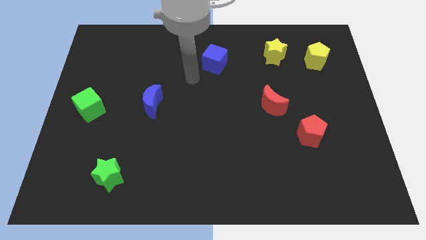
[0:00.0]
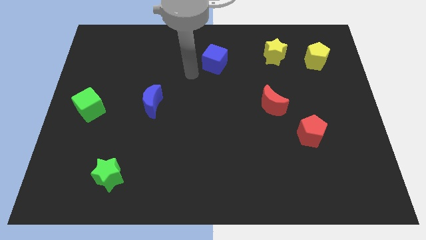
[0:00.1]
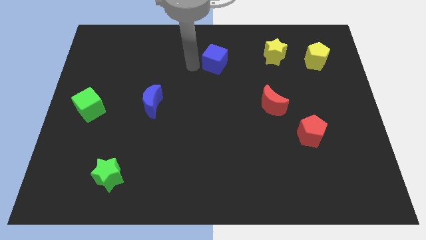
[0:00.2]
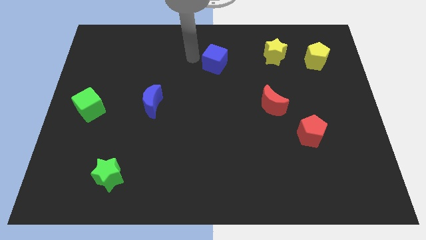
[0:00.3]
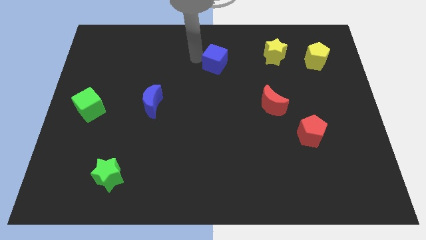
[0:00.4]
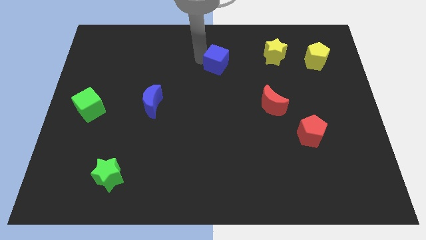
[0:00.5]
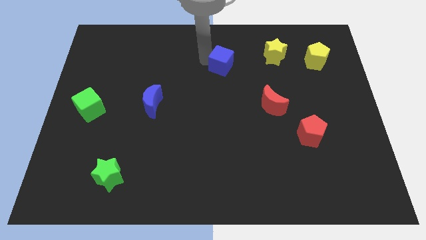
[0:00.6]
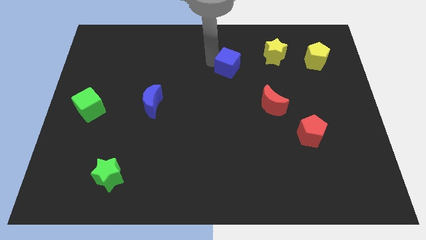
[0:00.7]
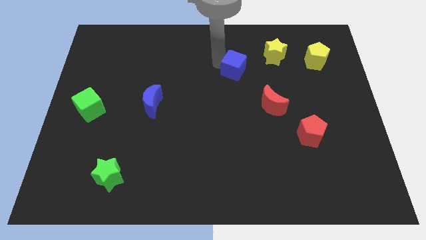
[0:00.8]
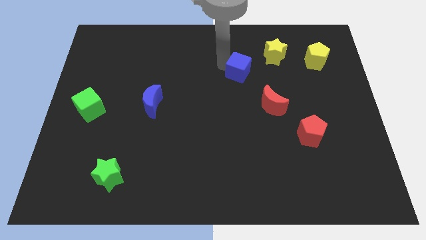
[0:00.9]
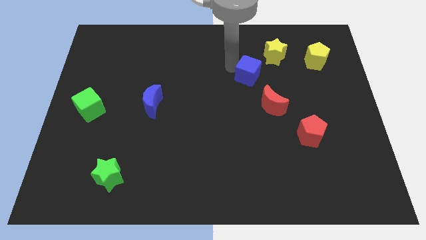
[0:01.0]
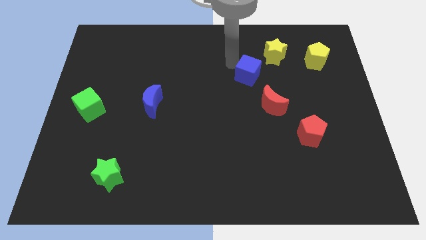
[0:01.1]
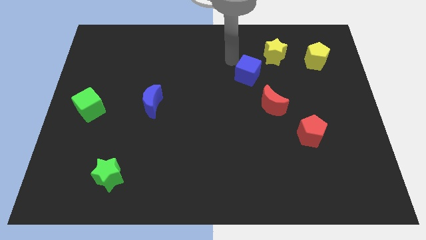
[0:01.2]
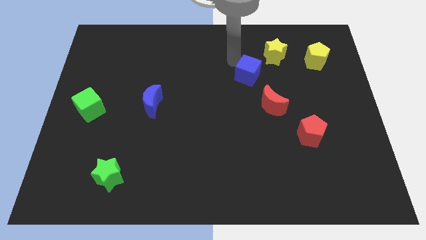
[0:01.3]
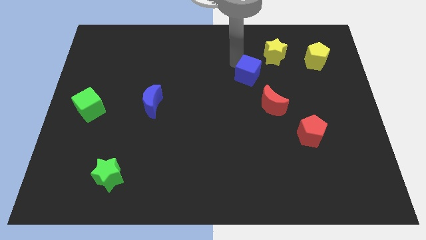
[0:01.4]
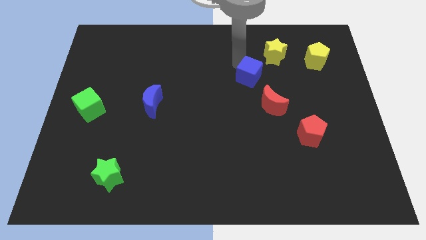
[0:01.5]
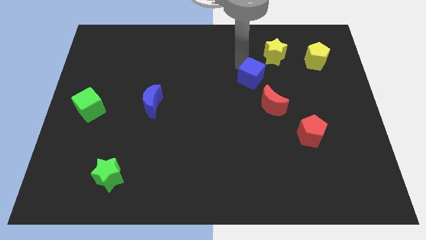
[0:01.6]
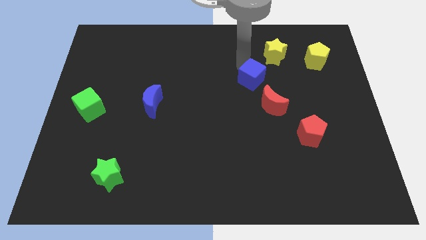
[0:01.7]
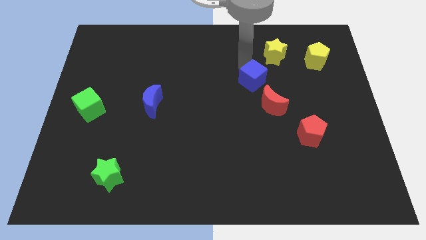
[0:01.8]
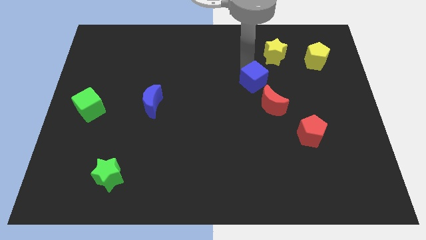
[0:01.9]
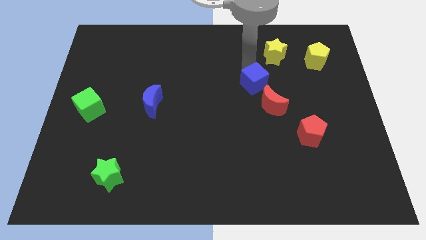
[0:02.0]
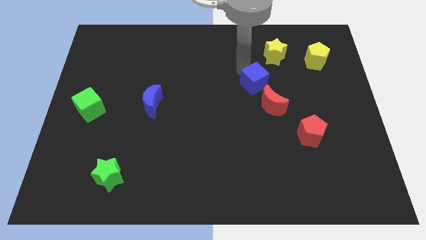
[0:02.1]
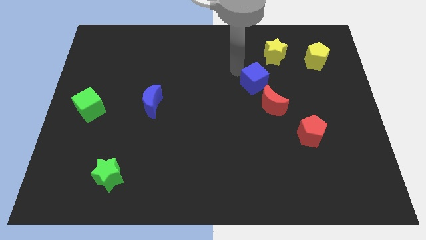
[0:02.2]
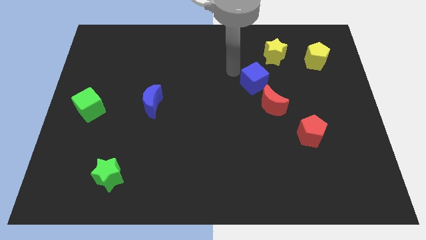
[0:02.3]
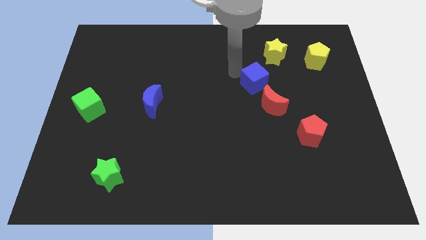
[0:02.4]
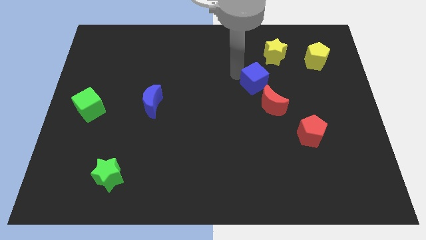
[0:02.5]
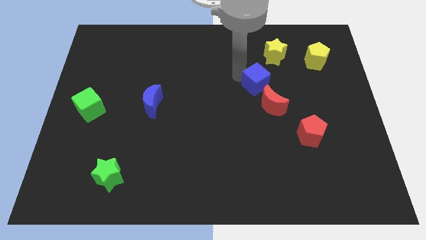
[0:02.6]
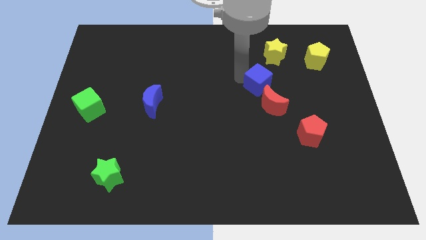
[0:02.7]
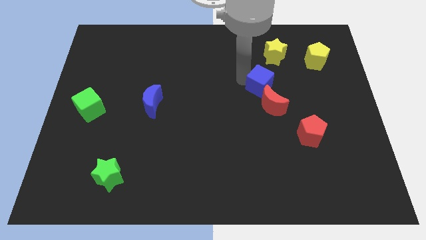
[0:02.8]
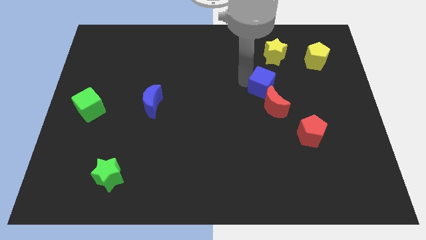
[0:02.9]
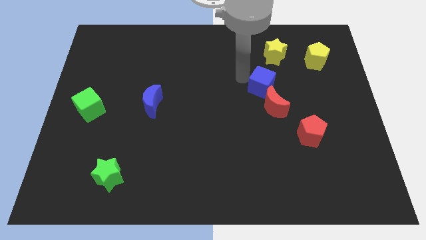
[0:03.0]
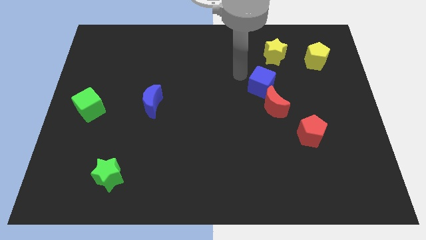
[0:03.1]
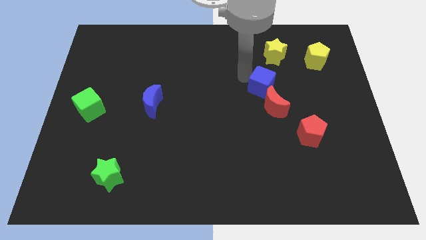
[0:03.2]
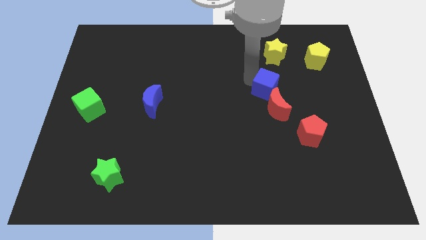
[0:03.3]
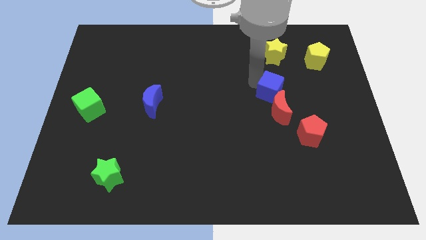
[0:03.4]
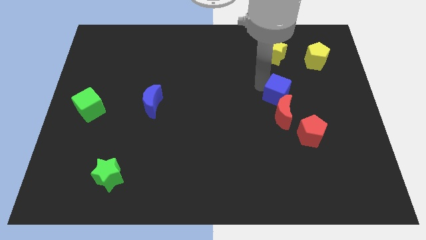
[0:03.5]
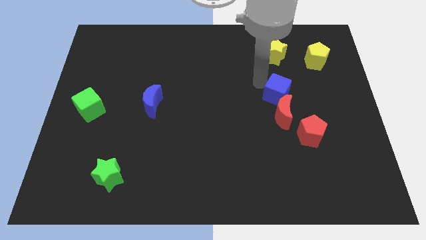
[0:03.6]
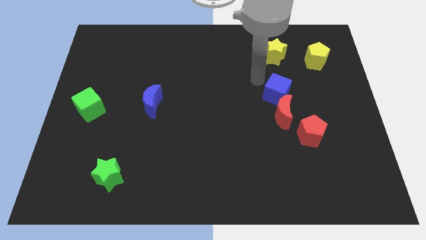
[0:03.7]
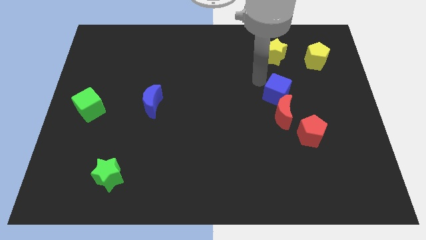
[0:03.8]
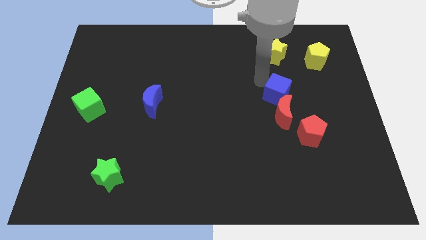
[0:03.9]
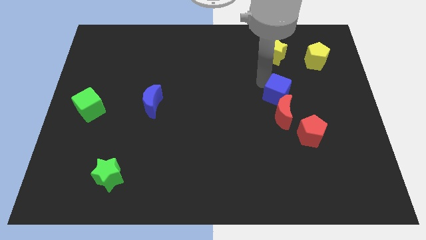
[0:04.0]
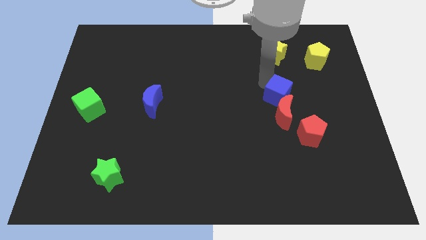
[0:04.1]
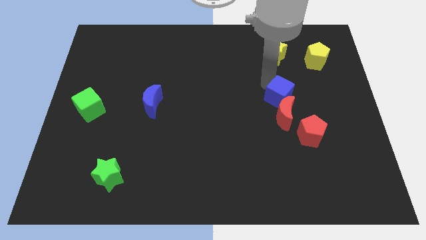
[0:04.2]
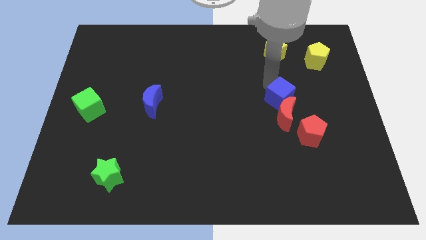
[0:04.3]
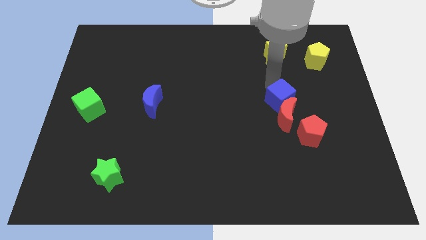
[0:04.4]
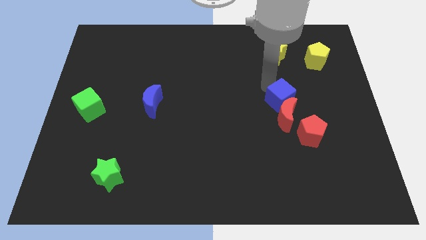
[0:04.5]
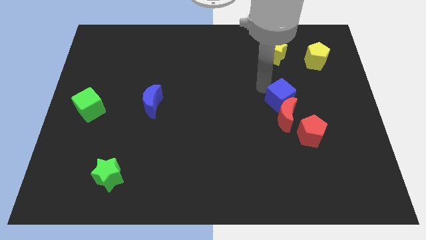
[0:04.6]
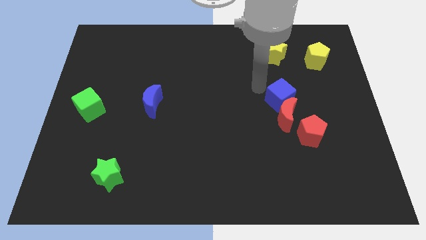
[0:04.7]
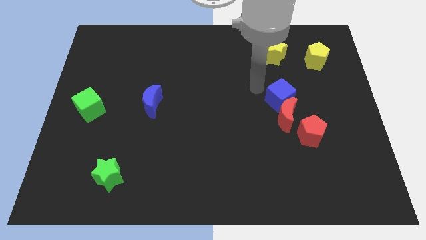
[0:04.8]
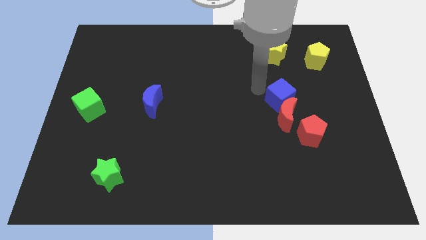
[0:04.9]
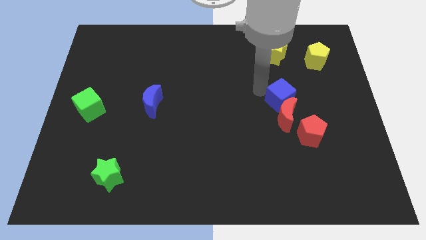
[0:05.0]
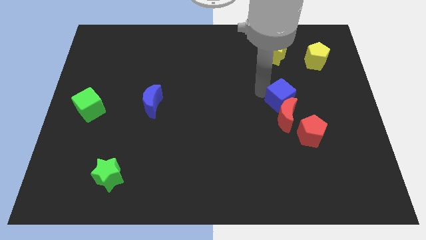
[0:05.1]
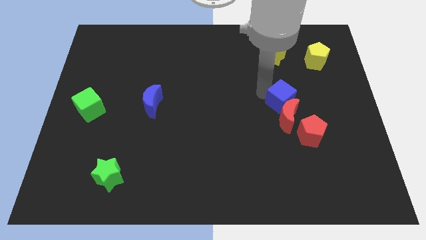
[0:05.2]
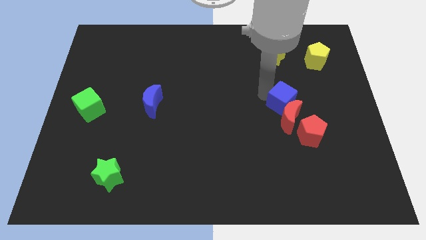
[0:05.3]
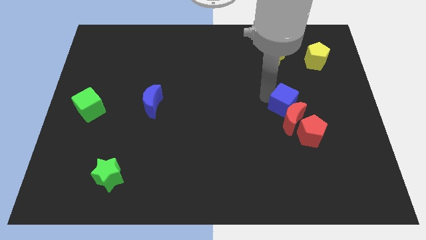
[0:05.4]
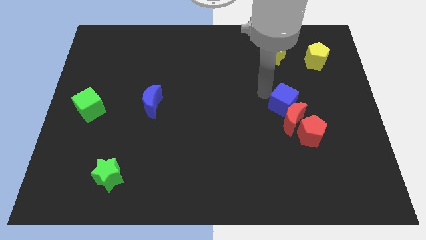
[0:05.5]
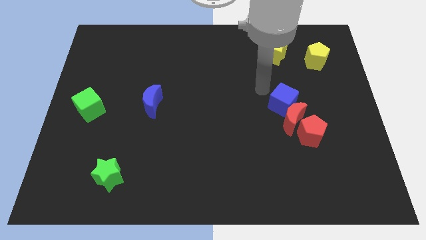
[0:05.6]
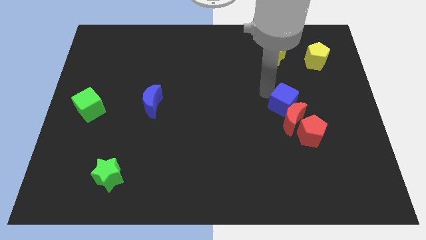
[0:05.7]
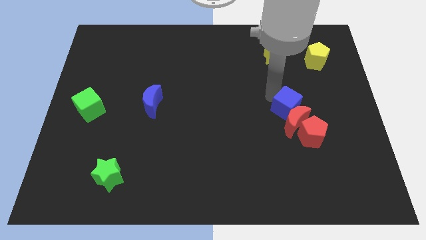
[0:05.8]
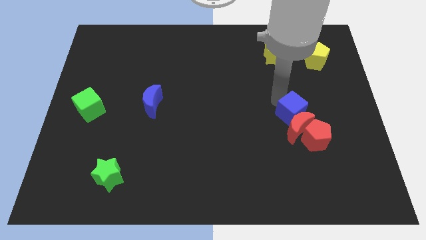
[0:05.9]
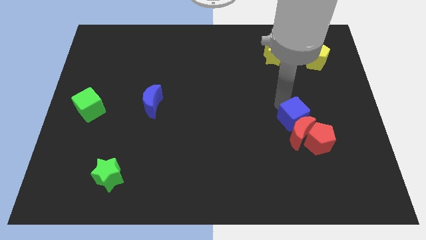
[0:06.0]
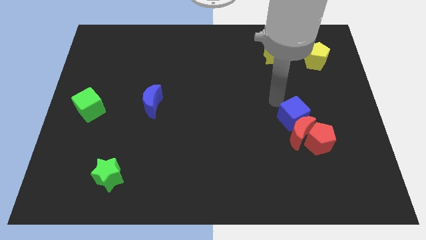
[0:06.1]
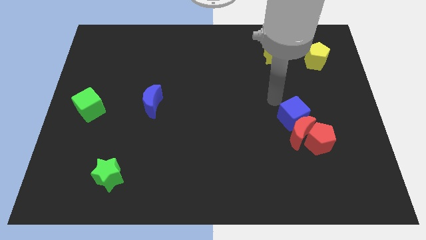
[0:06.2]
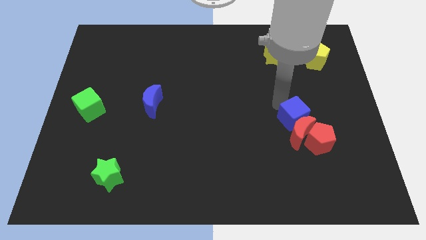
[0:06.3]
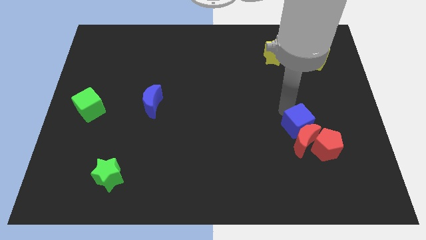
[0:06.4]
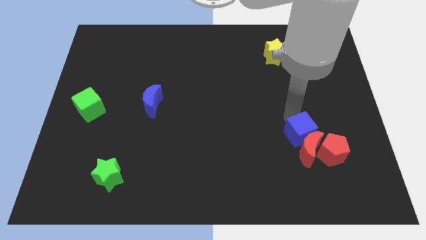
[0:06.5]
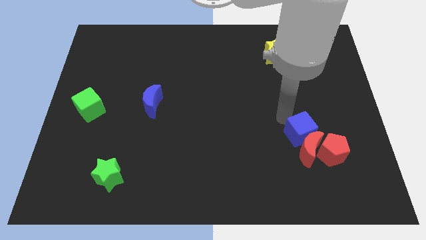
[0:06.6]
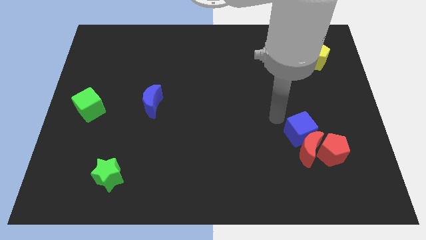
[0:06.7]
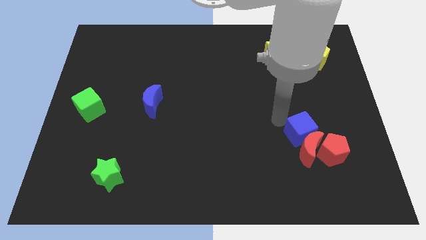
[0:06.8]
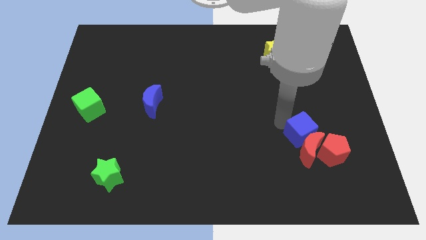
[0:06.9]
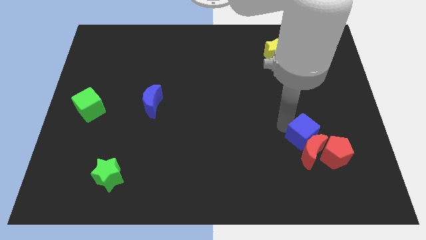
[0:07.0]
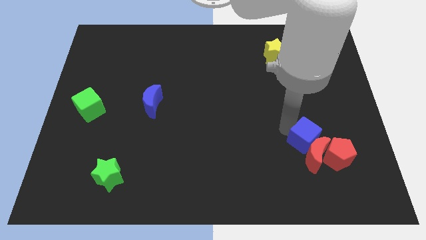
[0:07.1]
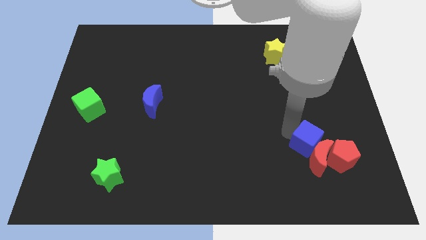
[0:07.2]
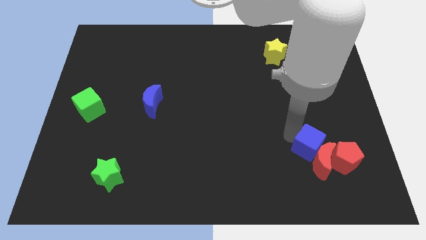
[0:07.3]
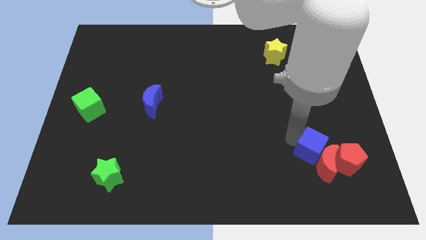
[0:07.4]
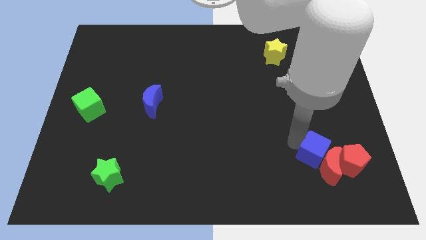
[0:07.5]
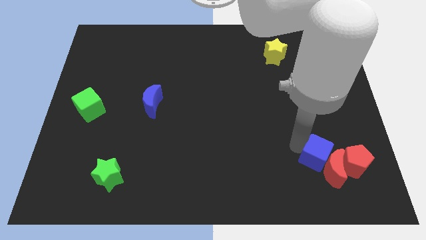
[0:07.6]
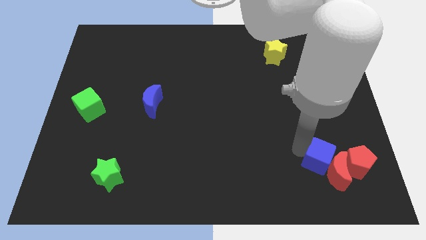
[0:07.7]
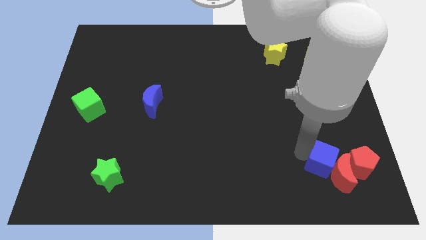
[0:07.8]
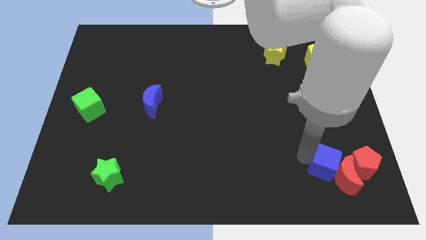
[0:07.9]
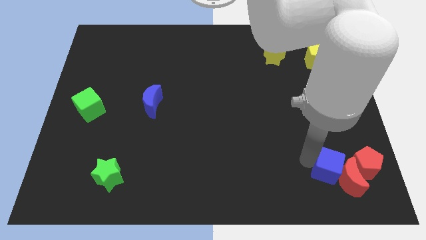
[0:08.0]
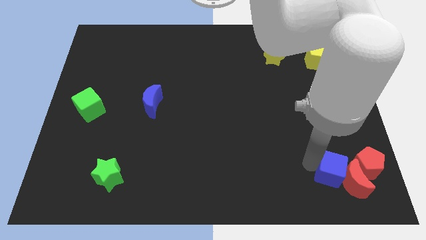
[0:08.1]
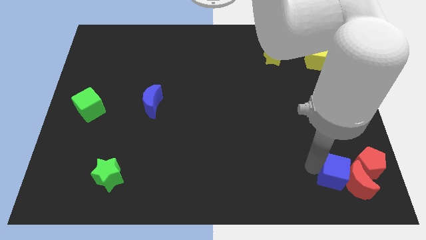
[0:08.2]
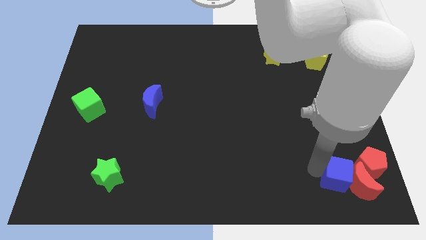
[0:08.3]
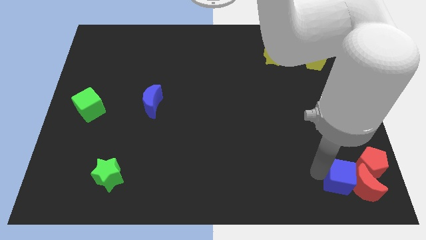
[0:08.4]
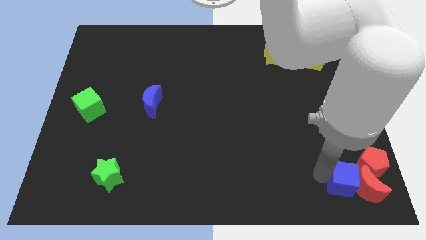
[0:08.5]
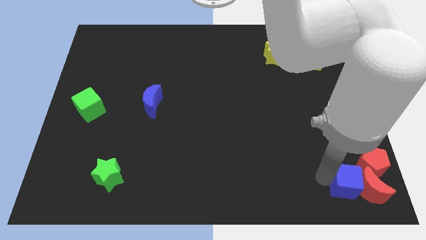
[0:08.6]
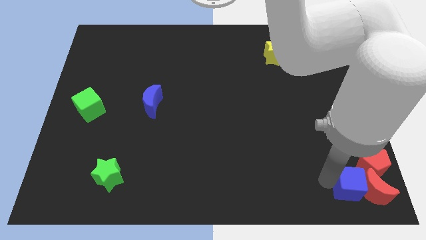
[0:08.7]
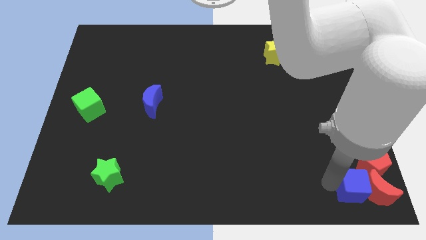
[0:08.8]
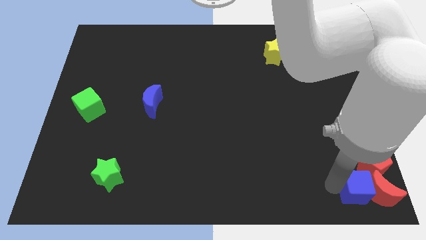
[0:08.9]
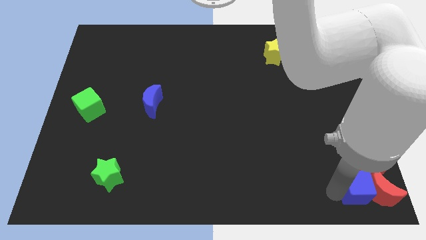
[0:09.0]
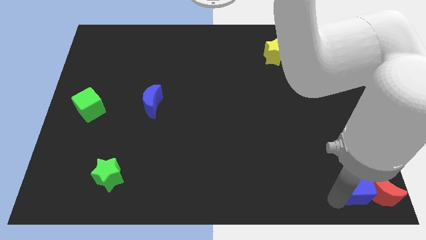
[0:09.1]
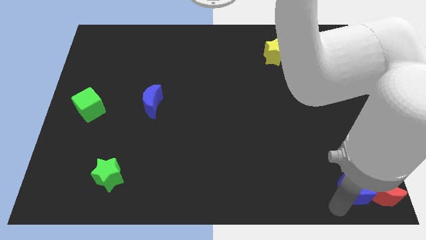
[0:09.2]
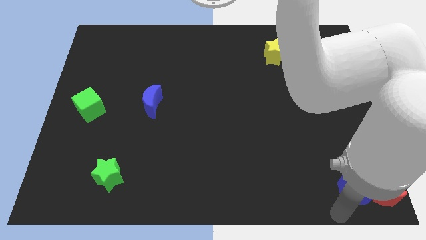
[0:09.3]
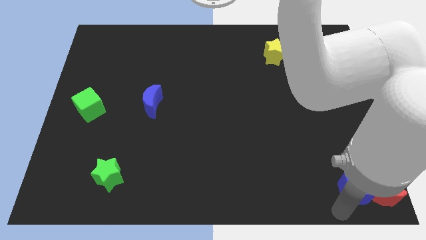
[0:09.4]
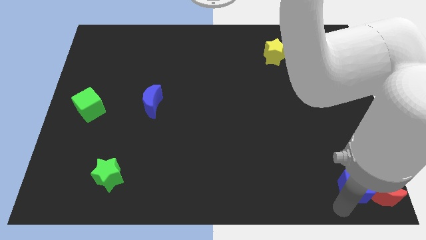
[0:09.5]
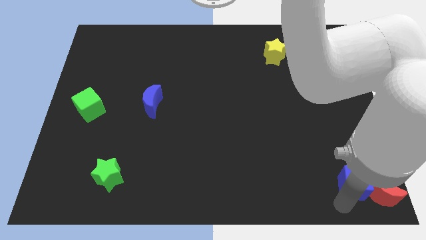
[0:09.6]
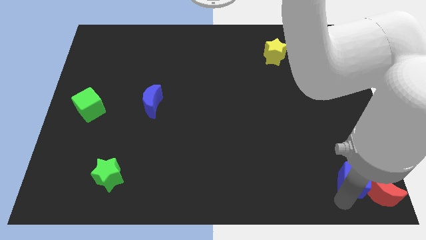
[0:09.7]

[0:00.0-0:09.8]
slide the blue cube next to the red pentagon
